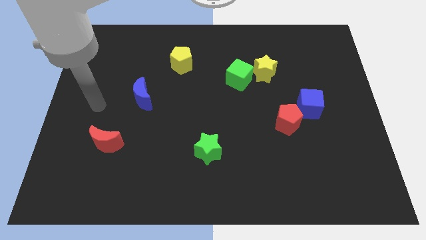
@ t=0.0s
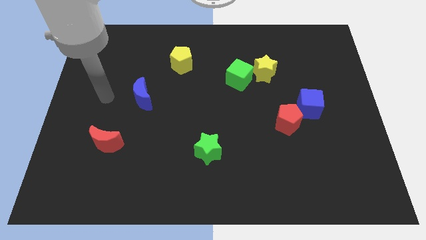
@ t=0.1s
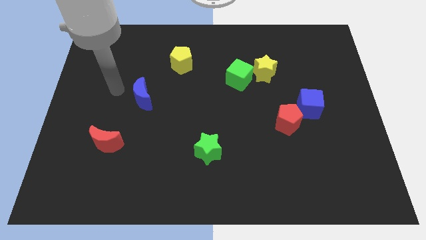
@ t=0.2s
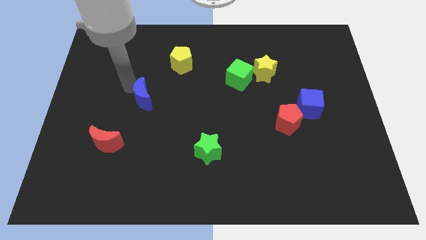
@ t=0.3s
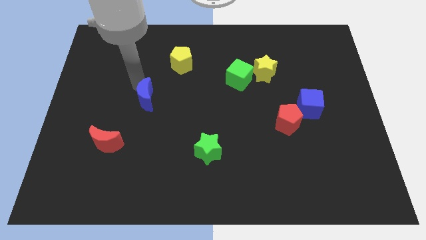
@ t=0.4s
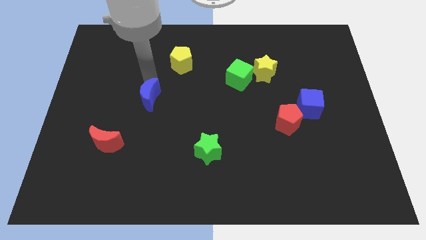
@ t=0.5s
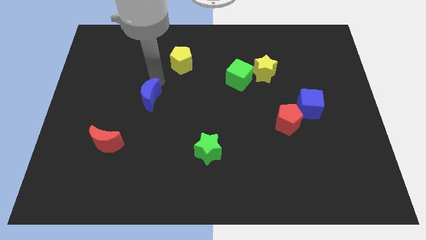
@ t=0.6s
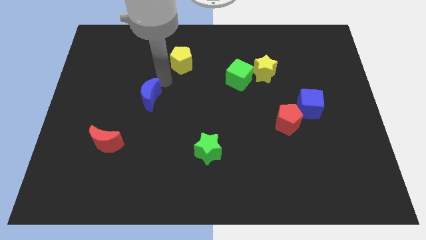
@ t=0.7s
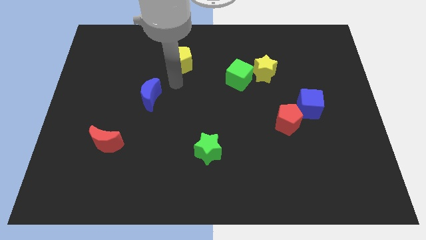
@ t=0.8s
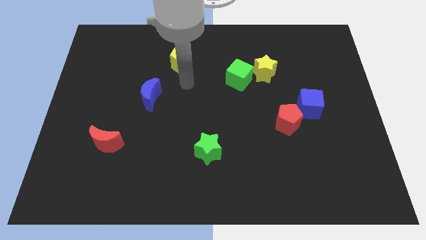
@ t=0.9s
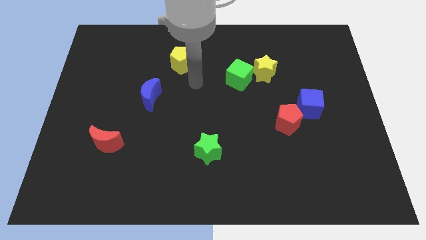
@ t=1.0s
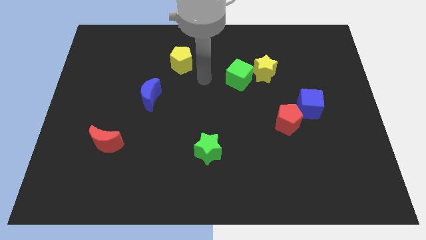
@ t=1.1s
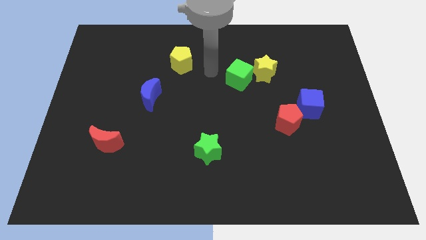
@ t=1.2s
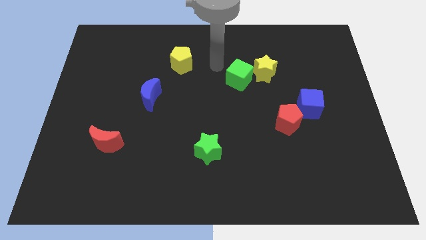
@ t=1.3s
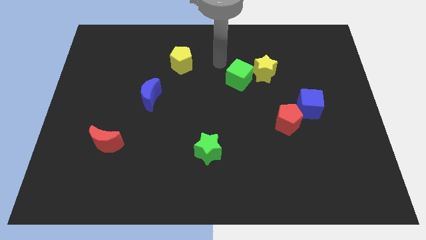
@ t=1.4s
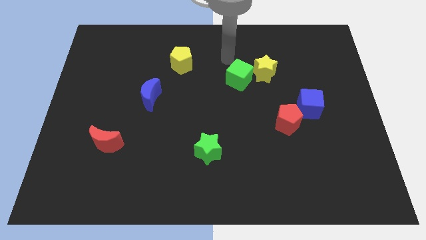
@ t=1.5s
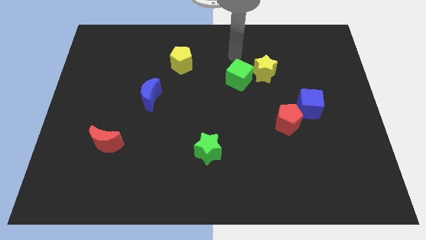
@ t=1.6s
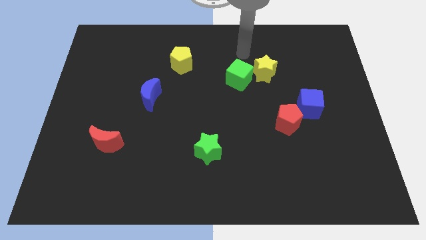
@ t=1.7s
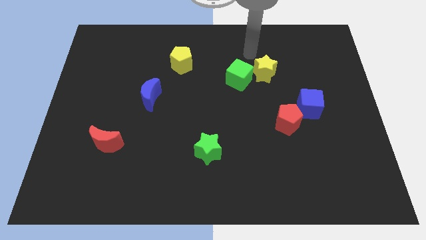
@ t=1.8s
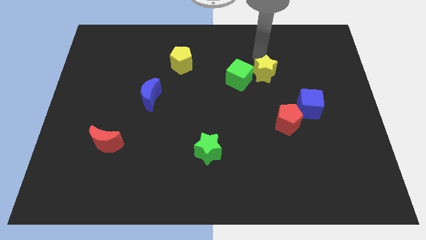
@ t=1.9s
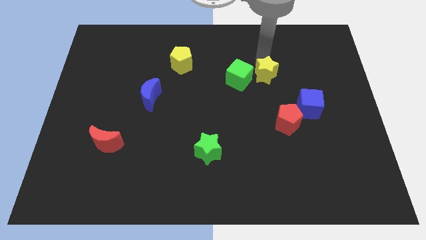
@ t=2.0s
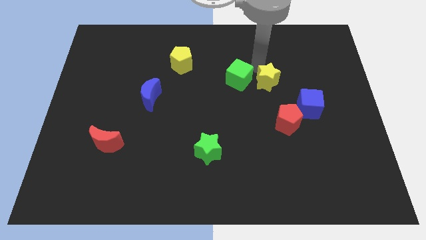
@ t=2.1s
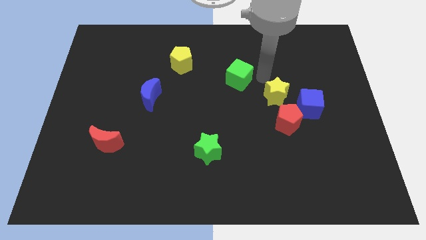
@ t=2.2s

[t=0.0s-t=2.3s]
separate the green cube from the yellow star

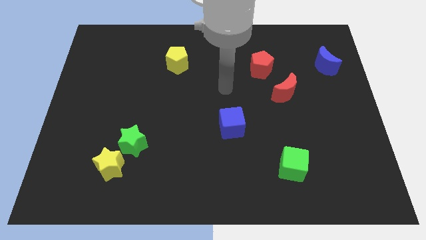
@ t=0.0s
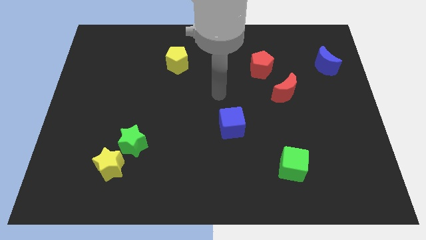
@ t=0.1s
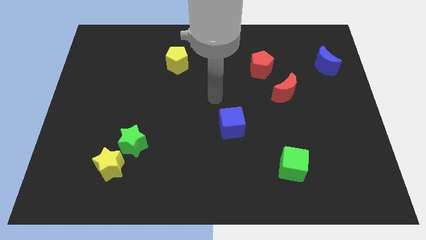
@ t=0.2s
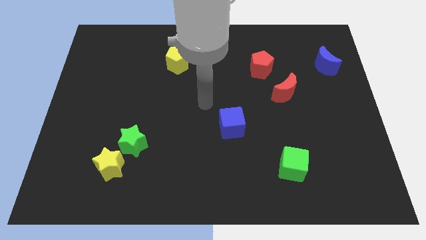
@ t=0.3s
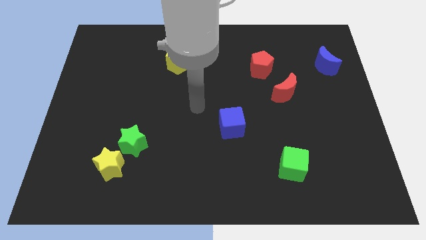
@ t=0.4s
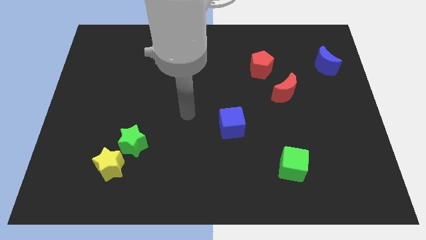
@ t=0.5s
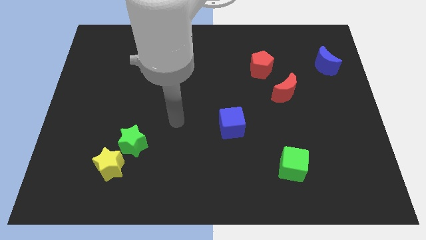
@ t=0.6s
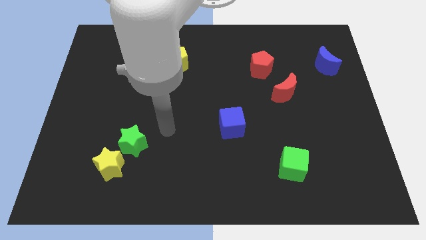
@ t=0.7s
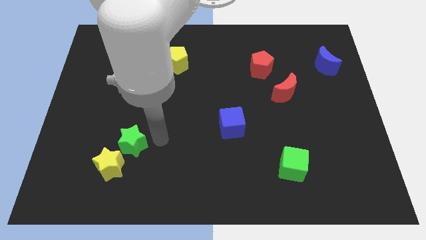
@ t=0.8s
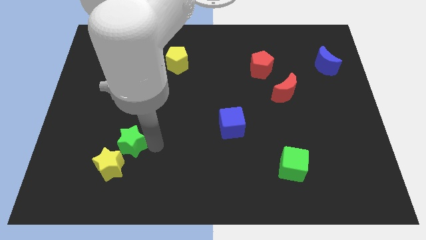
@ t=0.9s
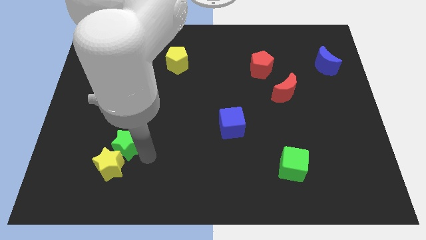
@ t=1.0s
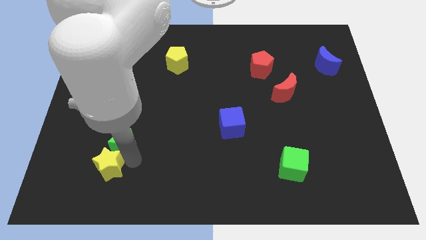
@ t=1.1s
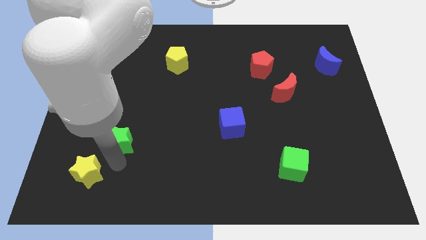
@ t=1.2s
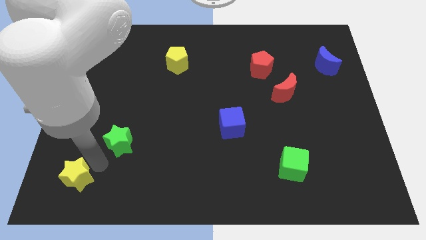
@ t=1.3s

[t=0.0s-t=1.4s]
move the green star away from the yellow star

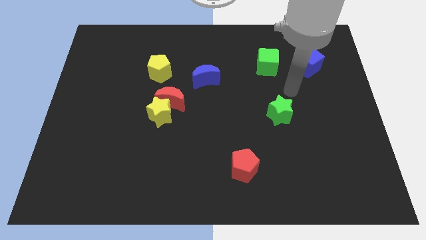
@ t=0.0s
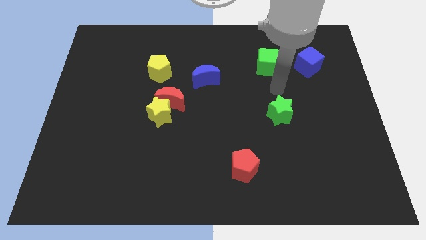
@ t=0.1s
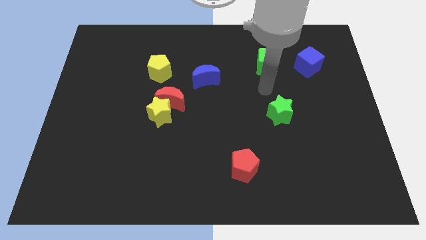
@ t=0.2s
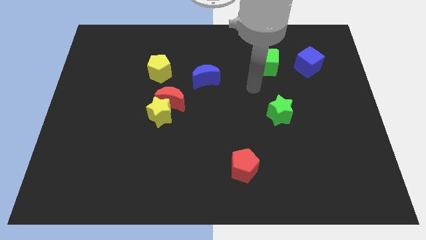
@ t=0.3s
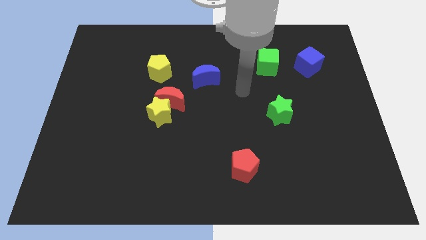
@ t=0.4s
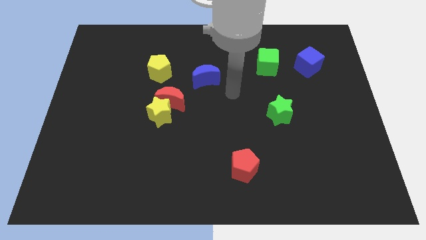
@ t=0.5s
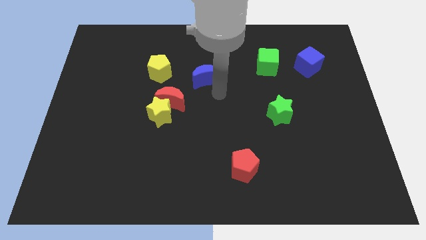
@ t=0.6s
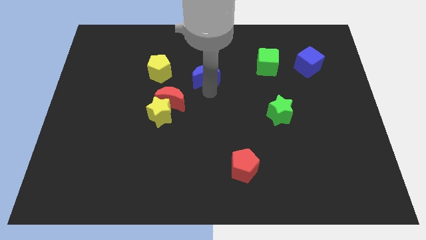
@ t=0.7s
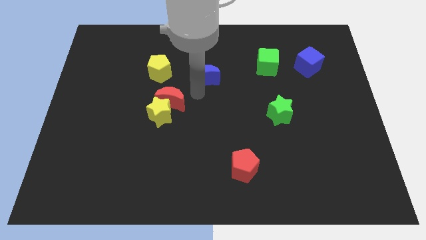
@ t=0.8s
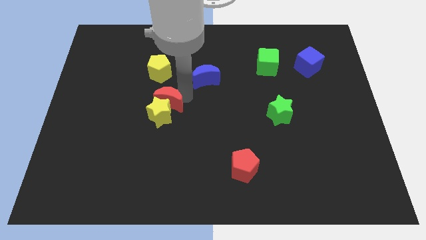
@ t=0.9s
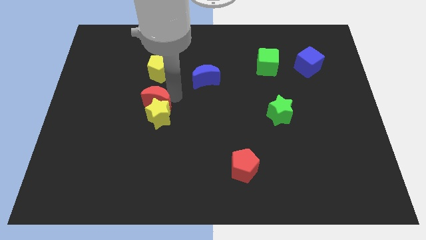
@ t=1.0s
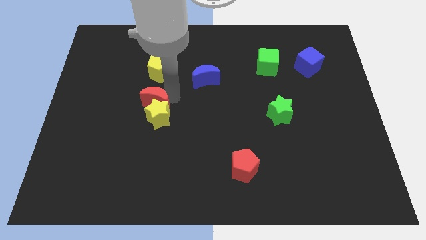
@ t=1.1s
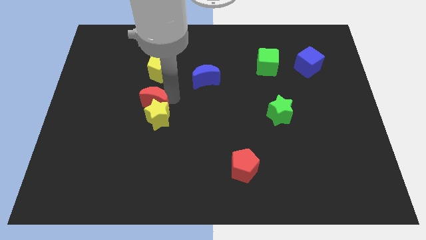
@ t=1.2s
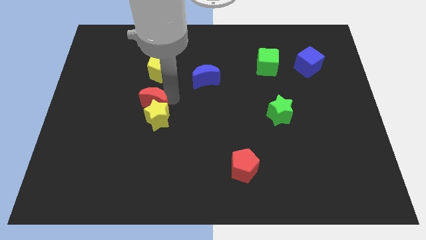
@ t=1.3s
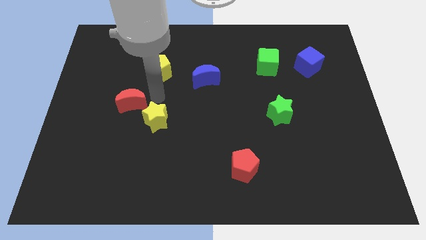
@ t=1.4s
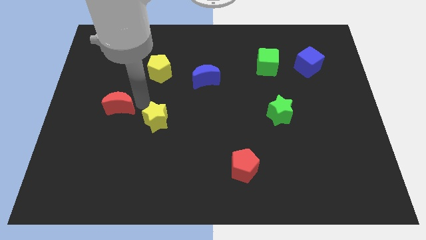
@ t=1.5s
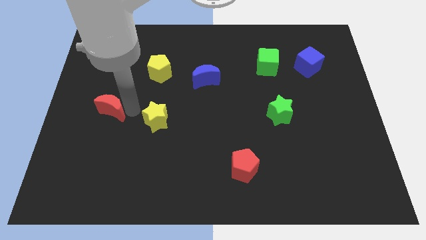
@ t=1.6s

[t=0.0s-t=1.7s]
move the yellow star away from the red moon

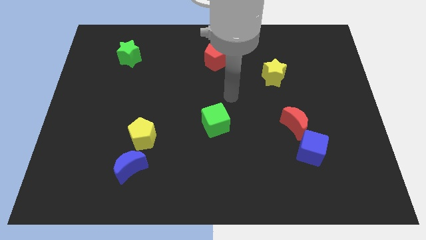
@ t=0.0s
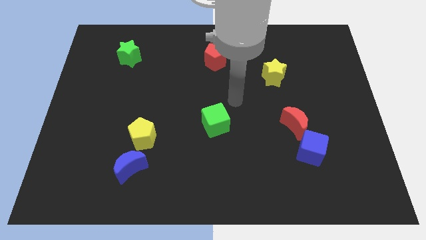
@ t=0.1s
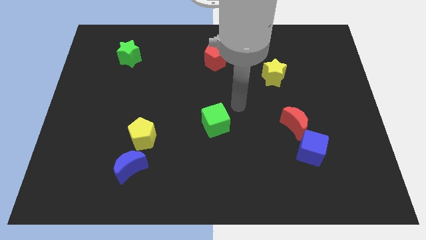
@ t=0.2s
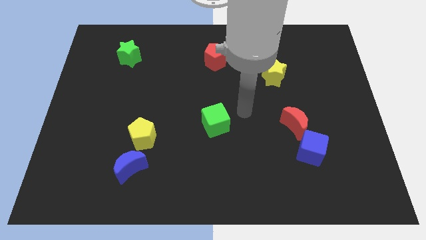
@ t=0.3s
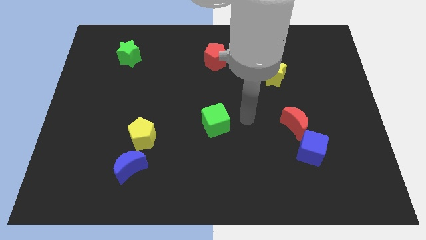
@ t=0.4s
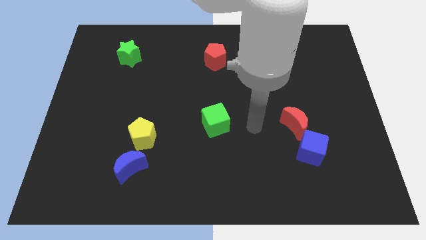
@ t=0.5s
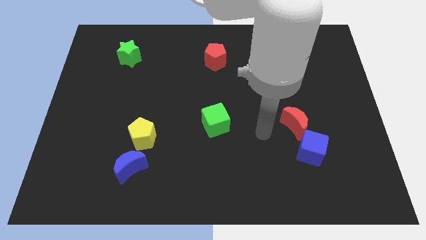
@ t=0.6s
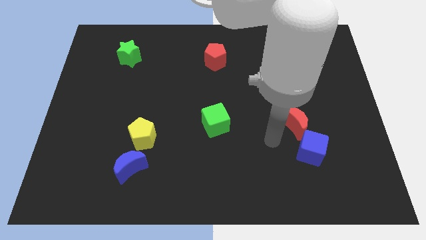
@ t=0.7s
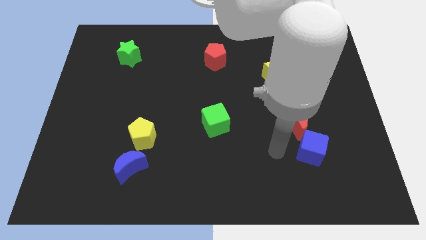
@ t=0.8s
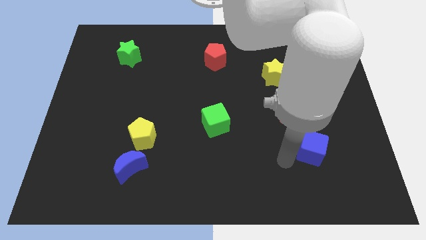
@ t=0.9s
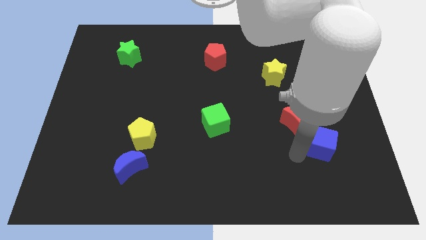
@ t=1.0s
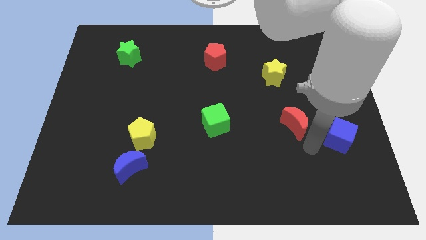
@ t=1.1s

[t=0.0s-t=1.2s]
pull the red moon apart from the blue cube

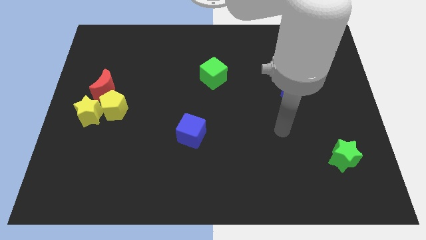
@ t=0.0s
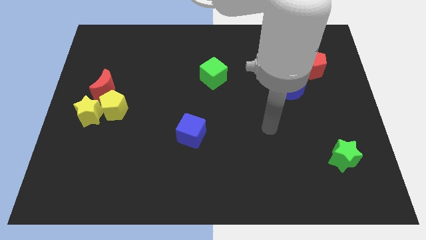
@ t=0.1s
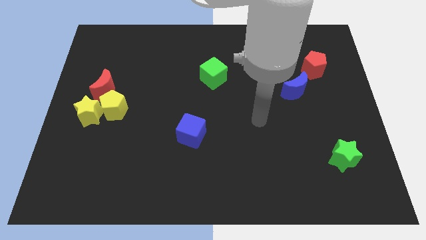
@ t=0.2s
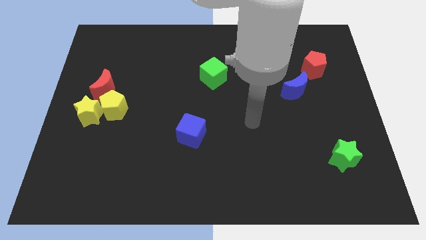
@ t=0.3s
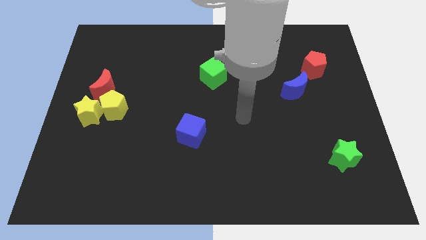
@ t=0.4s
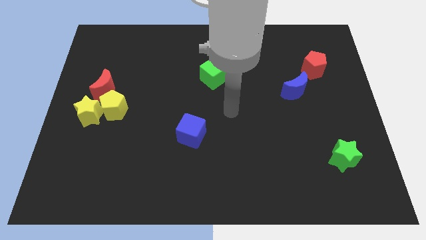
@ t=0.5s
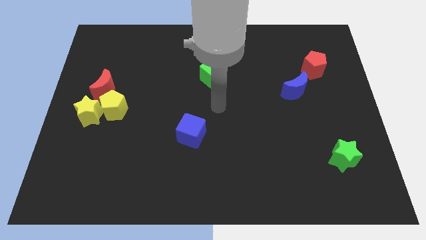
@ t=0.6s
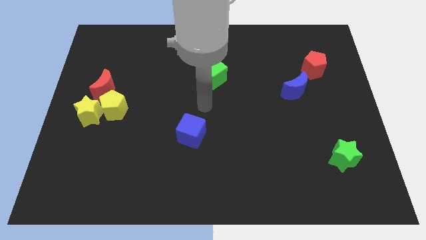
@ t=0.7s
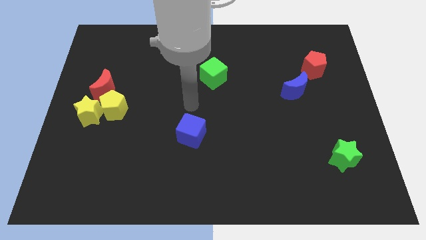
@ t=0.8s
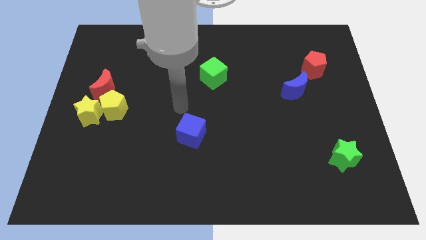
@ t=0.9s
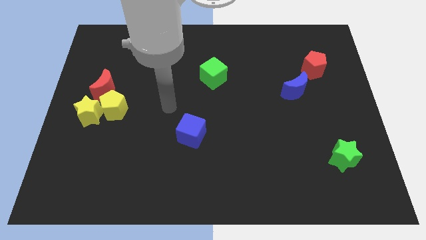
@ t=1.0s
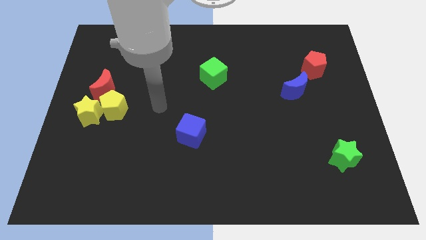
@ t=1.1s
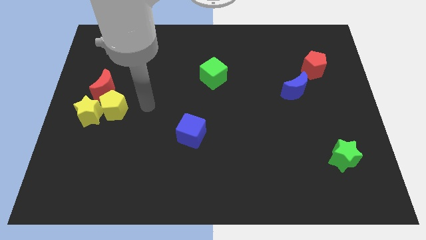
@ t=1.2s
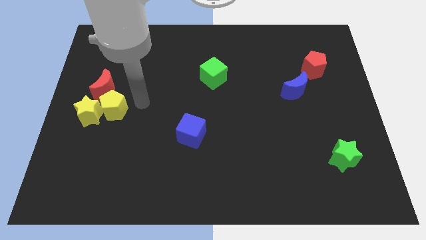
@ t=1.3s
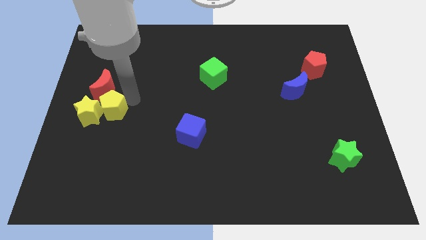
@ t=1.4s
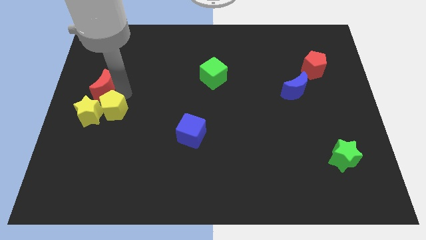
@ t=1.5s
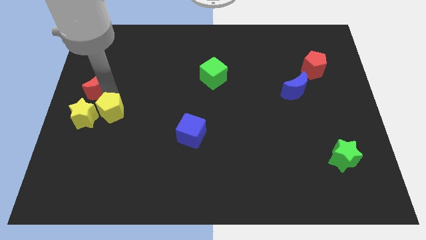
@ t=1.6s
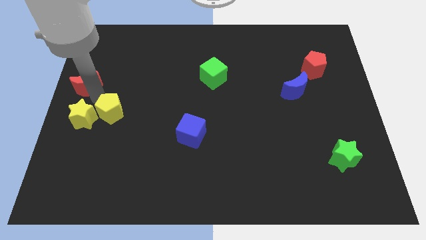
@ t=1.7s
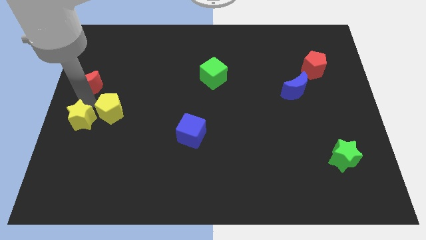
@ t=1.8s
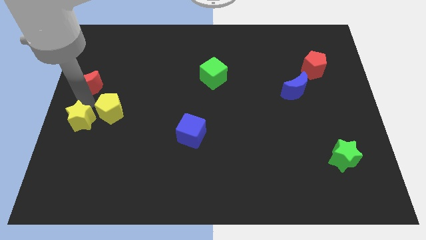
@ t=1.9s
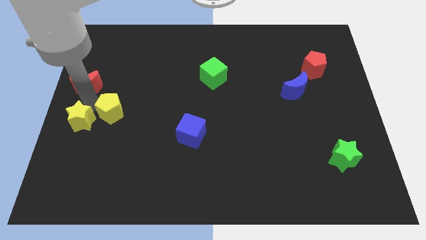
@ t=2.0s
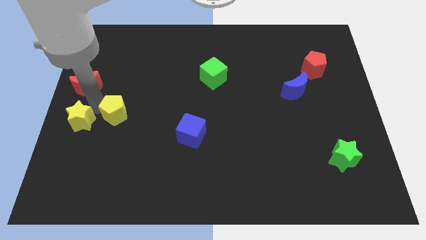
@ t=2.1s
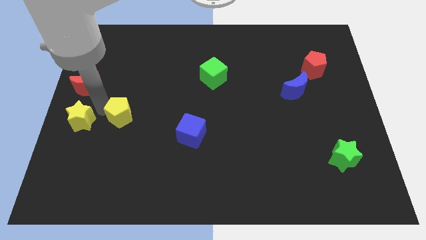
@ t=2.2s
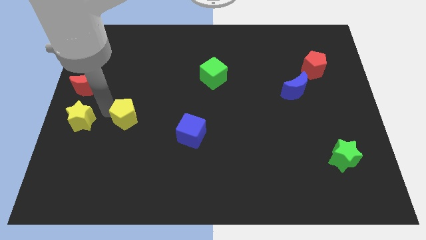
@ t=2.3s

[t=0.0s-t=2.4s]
pull the yellow pentagon apart from the yellow star and red moon

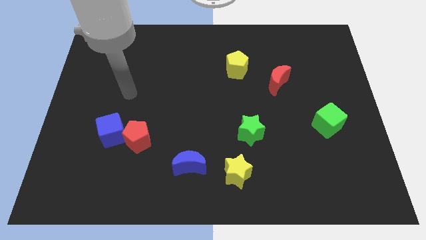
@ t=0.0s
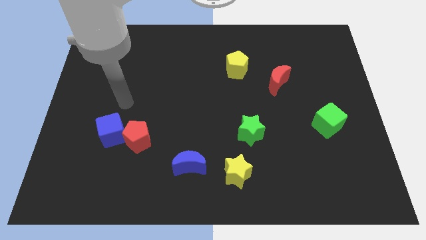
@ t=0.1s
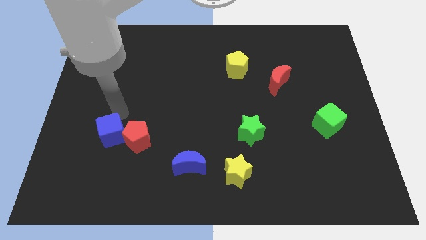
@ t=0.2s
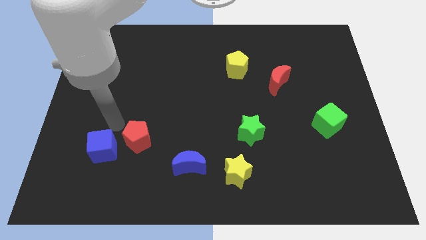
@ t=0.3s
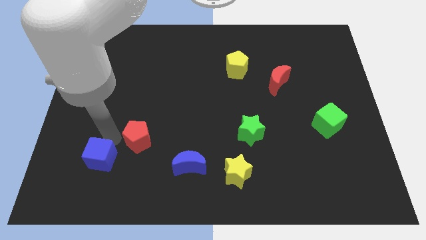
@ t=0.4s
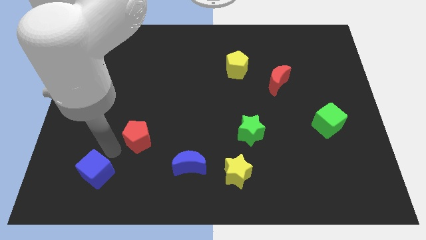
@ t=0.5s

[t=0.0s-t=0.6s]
move the red pentagon away from the blue cube
